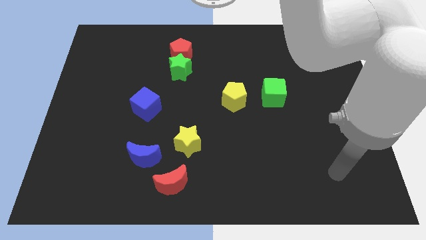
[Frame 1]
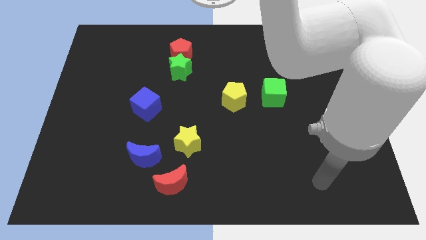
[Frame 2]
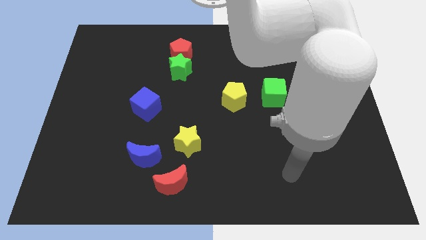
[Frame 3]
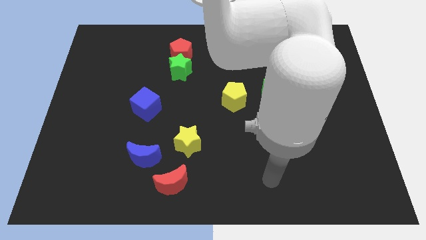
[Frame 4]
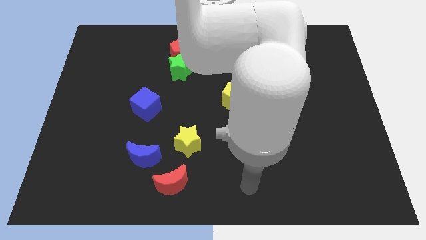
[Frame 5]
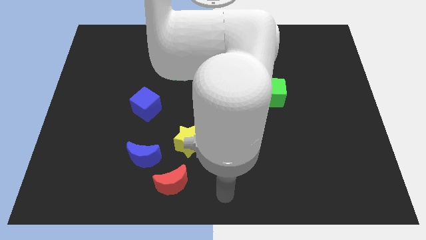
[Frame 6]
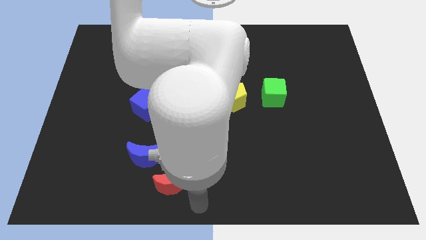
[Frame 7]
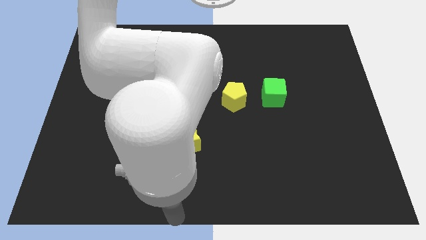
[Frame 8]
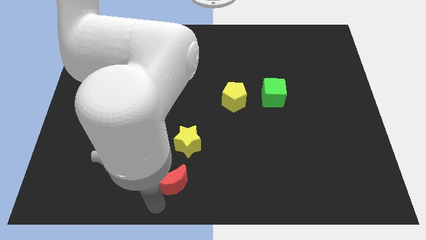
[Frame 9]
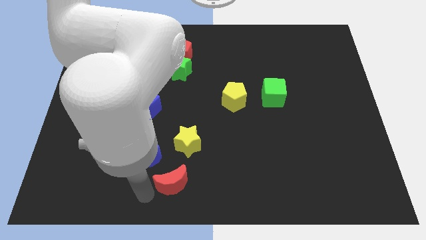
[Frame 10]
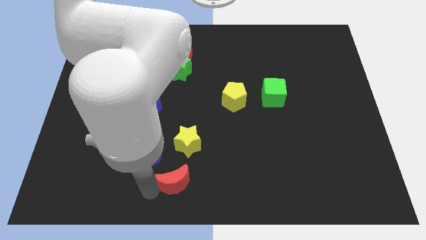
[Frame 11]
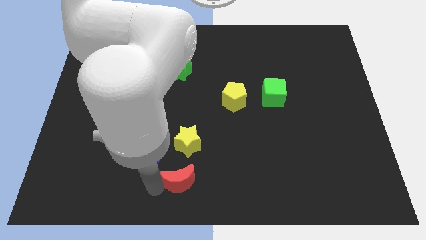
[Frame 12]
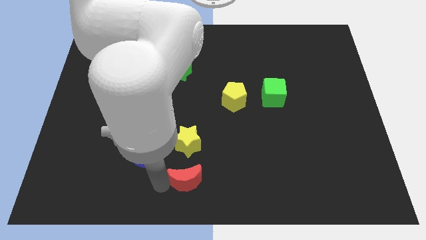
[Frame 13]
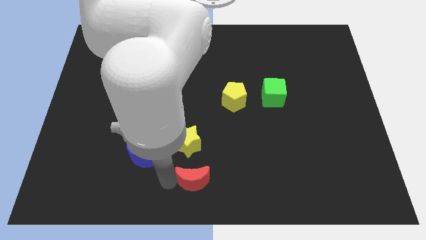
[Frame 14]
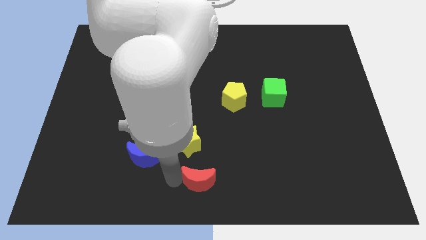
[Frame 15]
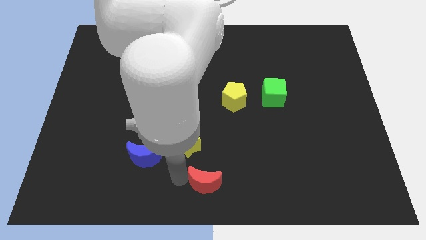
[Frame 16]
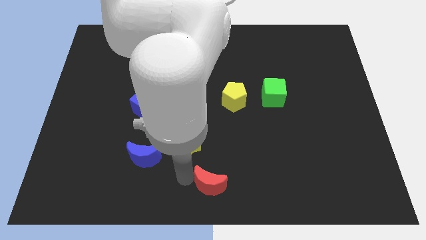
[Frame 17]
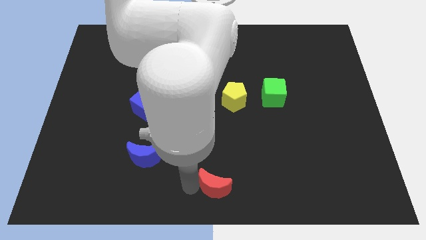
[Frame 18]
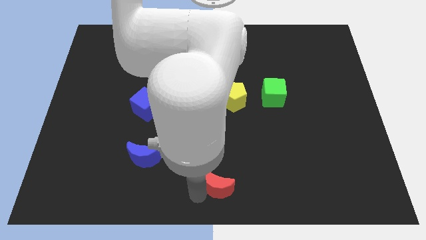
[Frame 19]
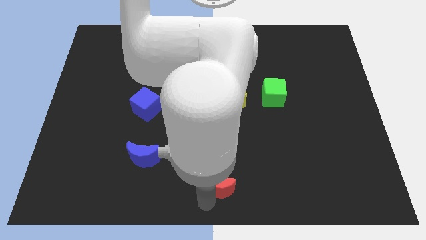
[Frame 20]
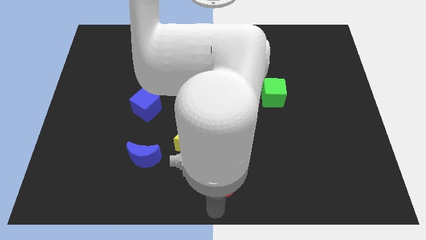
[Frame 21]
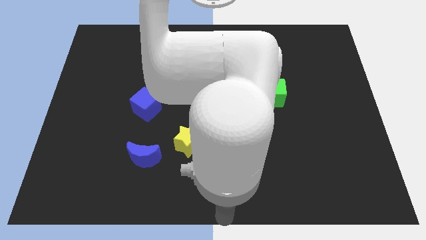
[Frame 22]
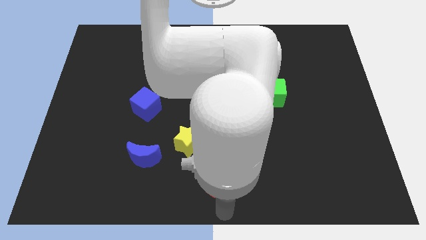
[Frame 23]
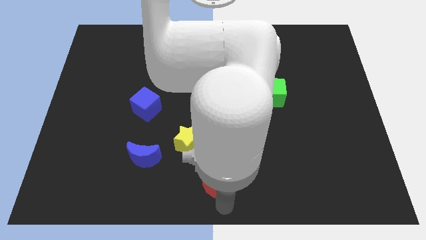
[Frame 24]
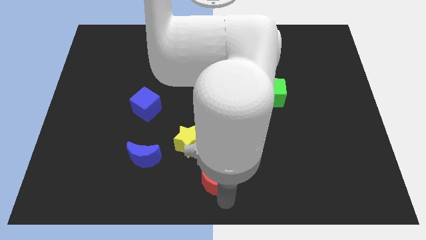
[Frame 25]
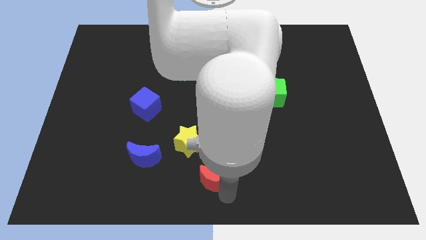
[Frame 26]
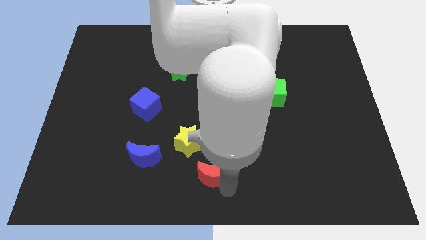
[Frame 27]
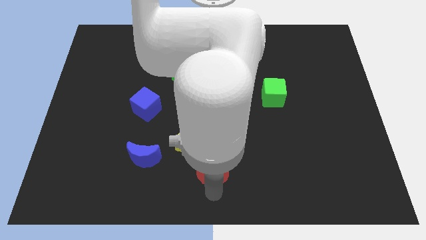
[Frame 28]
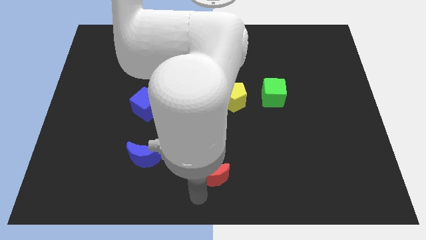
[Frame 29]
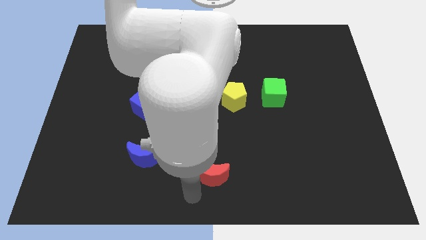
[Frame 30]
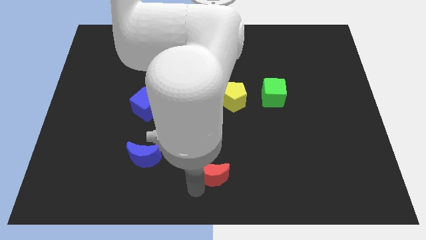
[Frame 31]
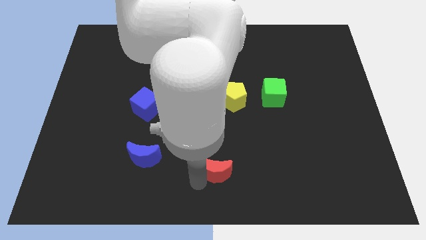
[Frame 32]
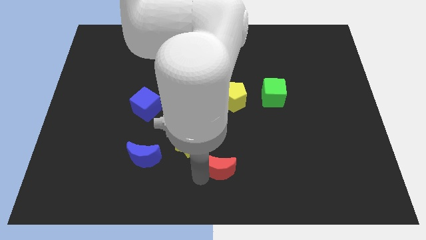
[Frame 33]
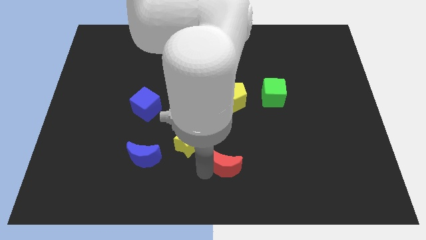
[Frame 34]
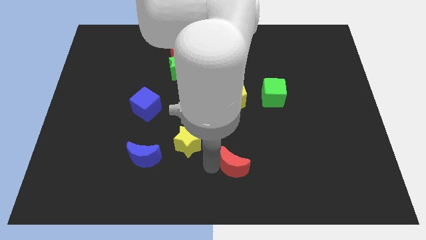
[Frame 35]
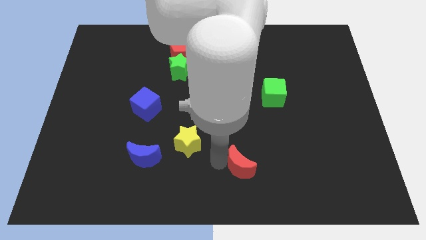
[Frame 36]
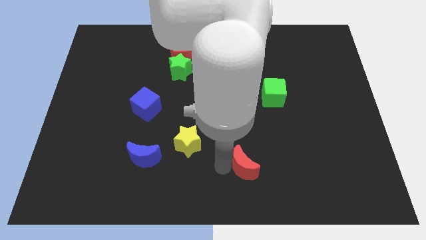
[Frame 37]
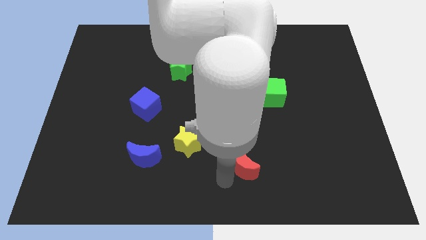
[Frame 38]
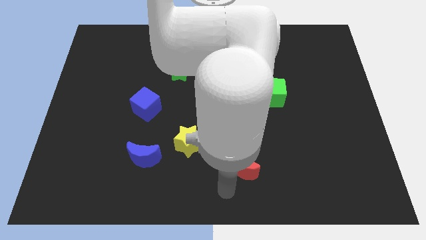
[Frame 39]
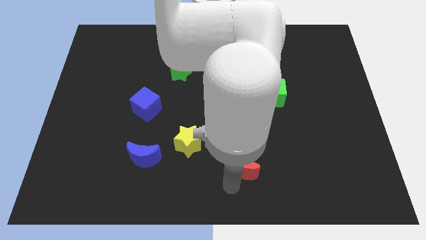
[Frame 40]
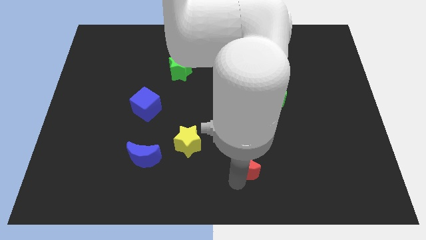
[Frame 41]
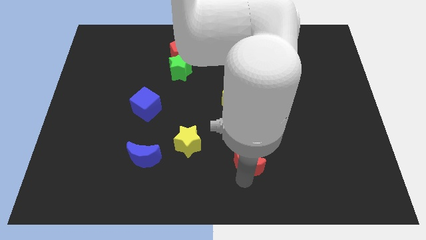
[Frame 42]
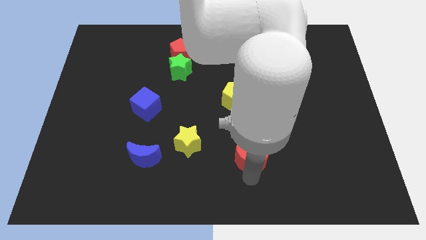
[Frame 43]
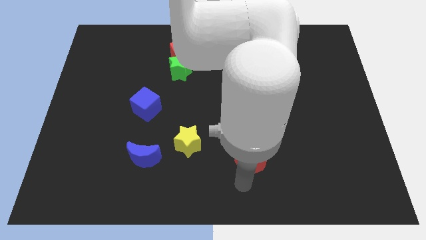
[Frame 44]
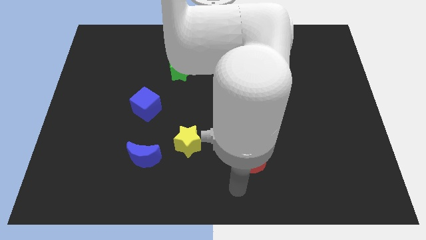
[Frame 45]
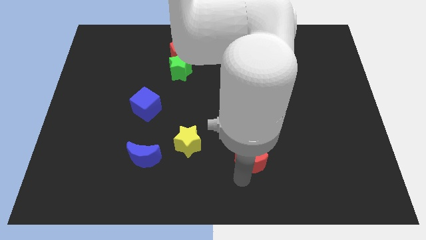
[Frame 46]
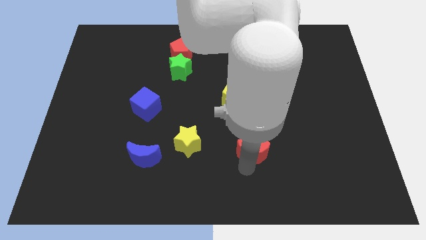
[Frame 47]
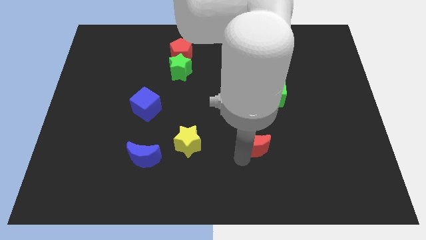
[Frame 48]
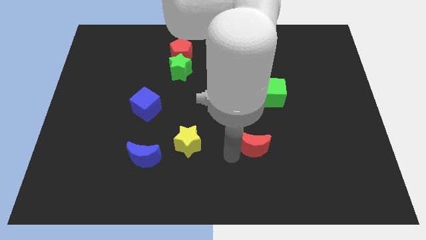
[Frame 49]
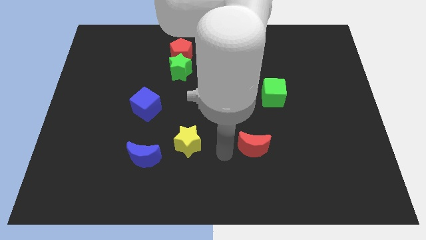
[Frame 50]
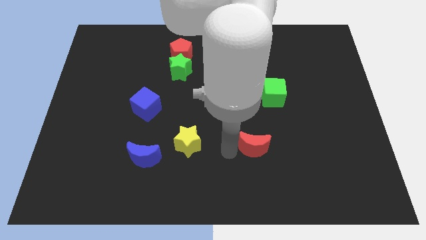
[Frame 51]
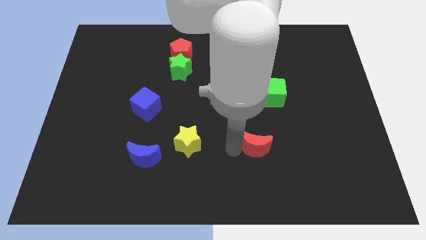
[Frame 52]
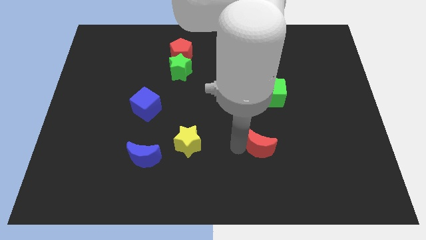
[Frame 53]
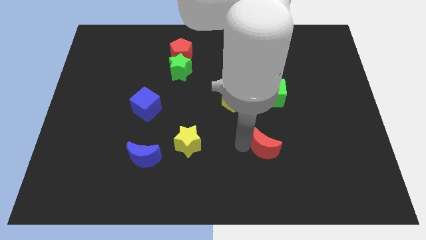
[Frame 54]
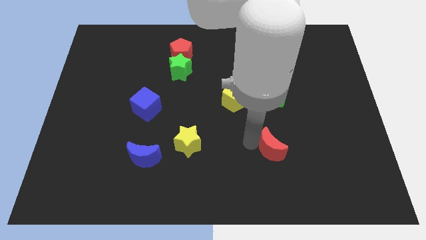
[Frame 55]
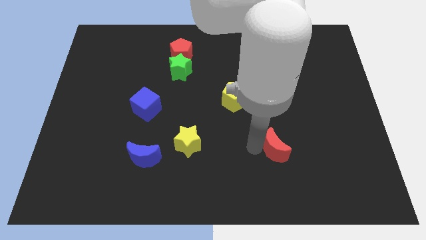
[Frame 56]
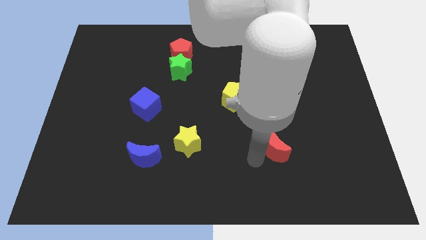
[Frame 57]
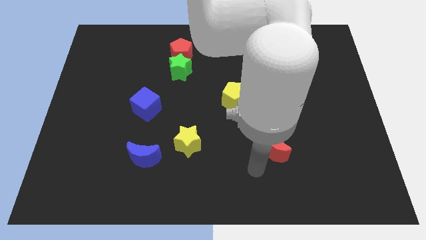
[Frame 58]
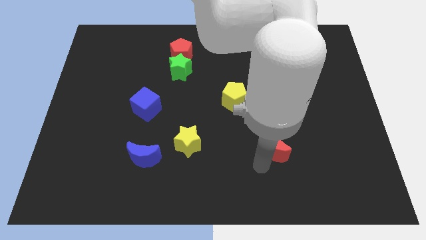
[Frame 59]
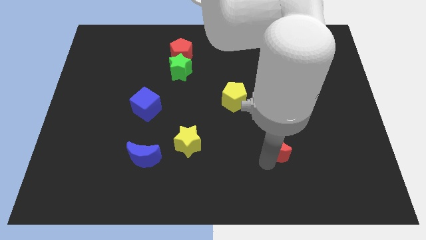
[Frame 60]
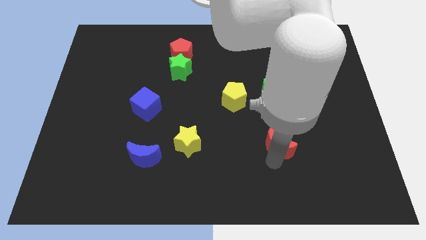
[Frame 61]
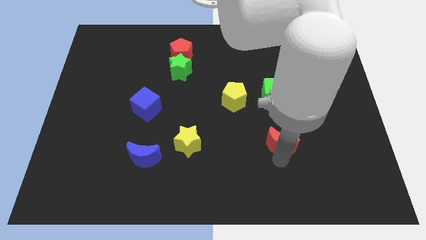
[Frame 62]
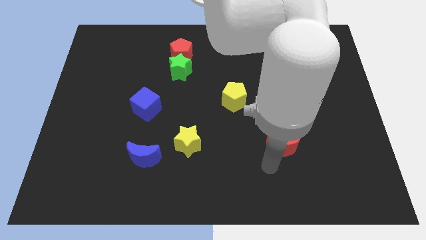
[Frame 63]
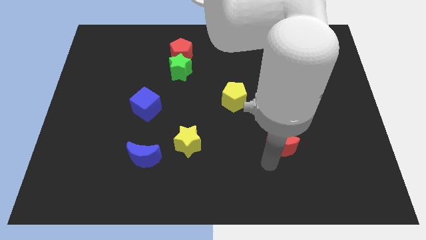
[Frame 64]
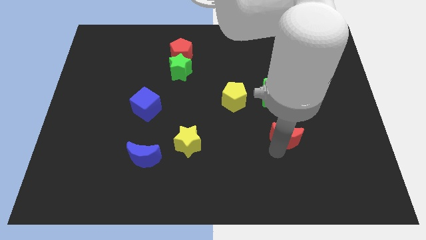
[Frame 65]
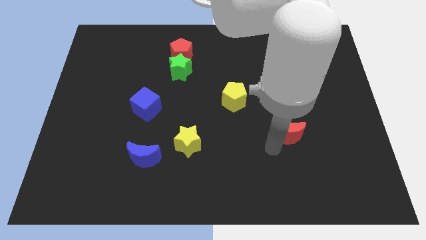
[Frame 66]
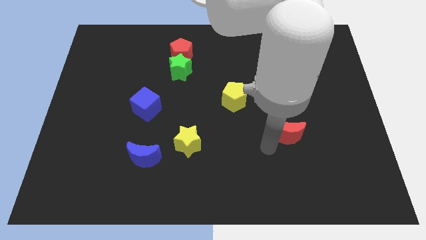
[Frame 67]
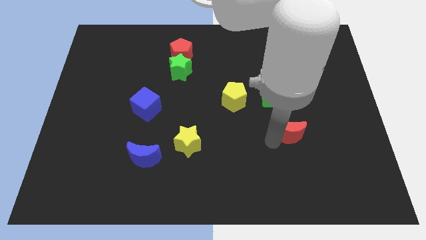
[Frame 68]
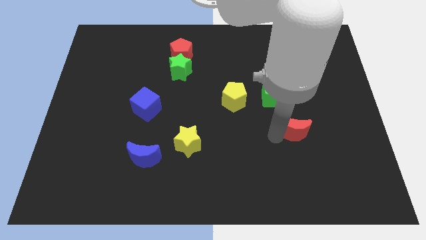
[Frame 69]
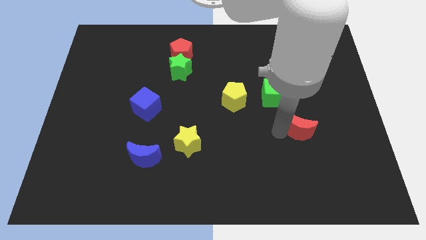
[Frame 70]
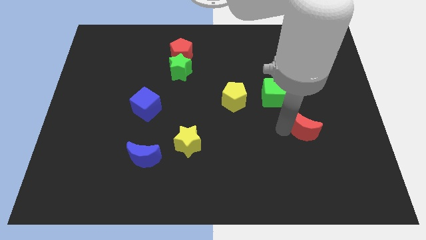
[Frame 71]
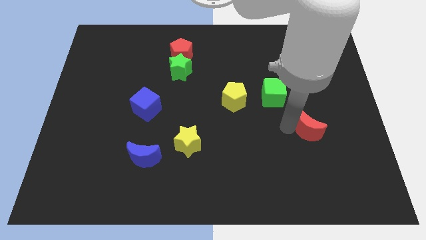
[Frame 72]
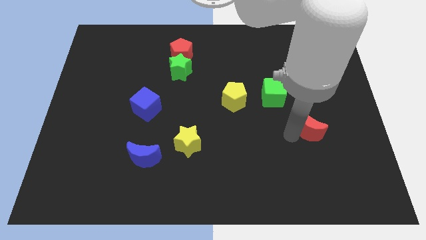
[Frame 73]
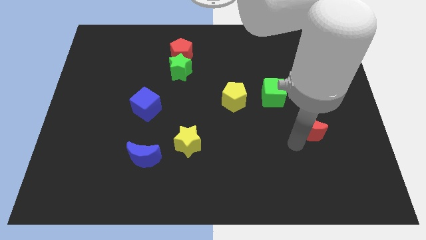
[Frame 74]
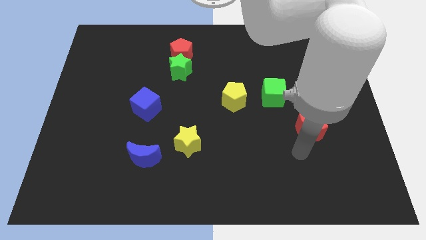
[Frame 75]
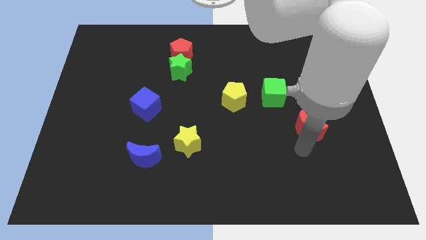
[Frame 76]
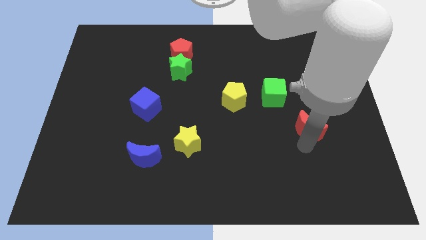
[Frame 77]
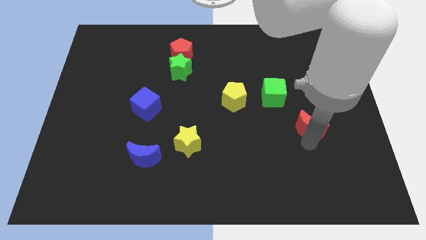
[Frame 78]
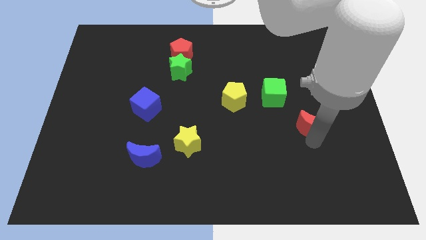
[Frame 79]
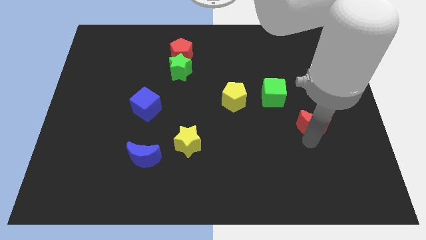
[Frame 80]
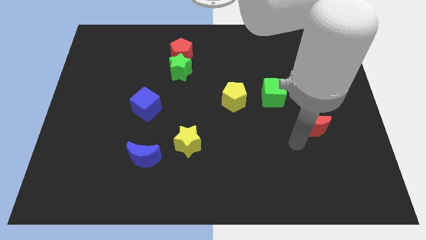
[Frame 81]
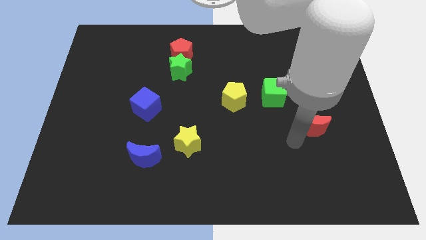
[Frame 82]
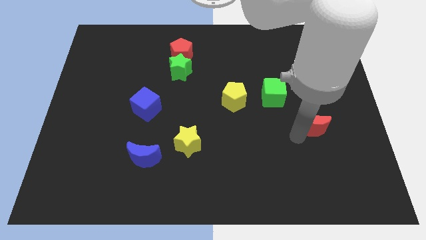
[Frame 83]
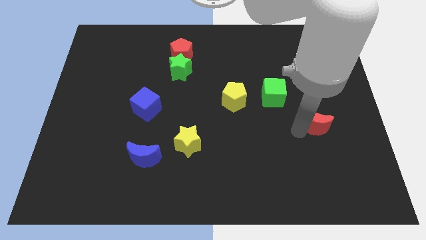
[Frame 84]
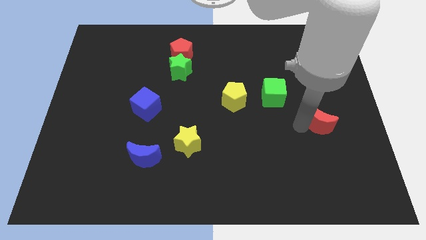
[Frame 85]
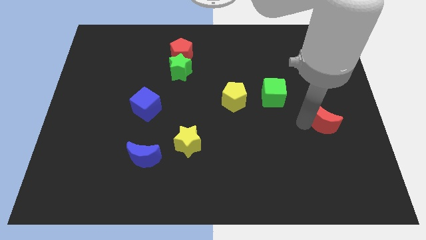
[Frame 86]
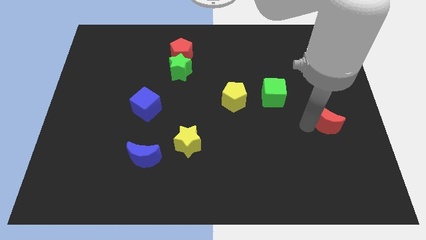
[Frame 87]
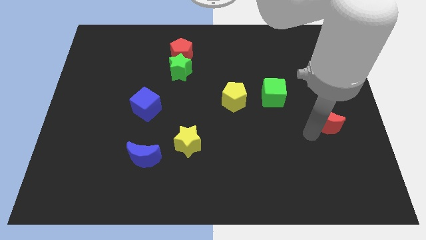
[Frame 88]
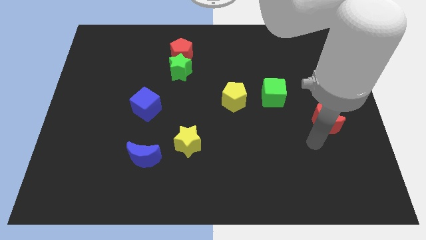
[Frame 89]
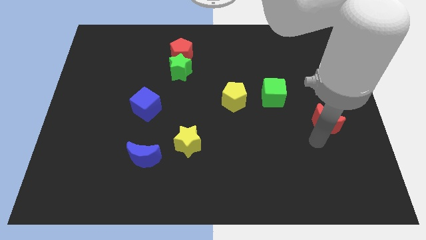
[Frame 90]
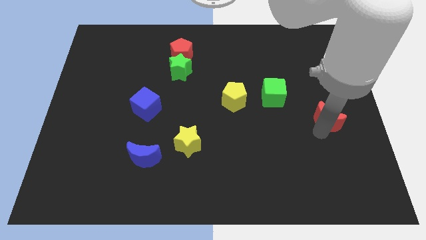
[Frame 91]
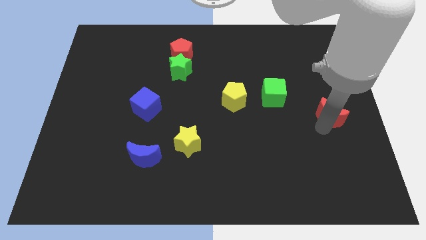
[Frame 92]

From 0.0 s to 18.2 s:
push the red moon to the right side
